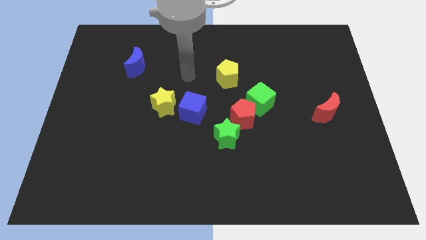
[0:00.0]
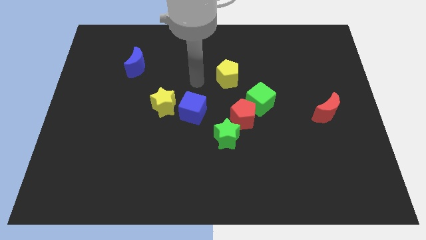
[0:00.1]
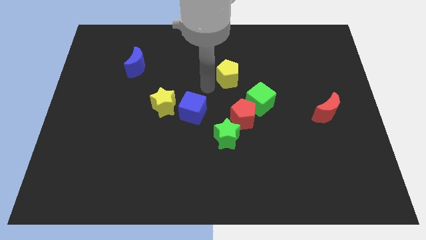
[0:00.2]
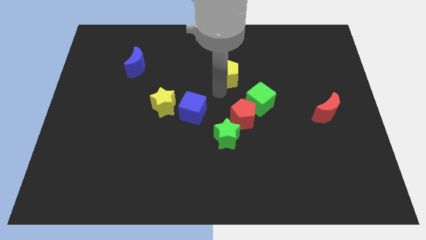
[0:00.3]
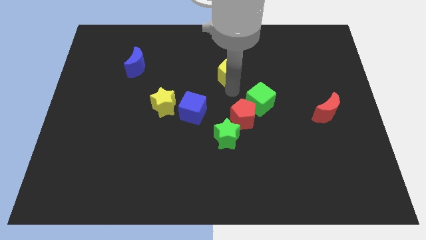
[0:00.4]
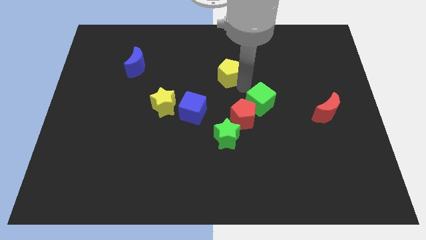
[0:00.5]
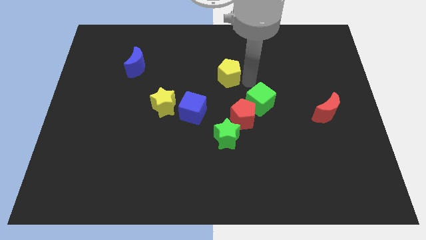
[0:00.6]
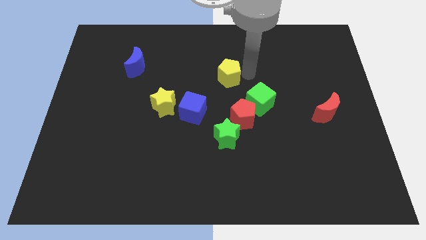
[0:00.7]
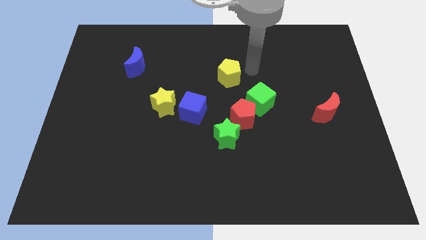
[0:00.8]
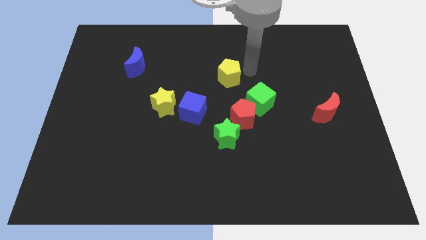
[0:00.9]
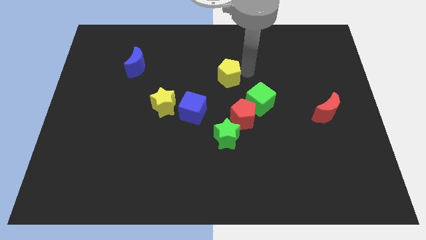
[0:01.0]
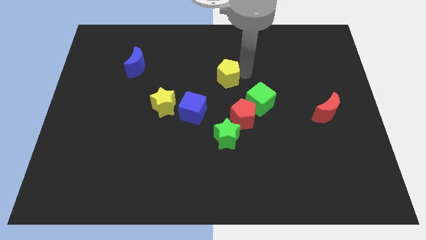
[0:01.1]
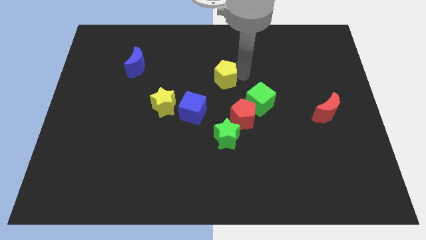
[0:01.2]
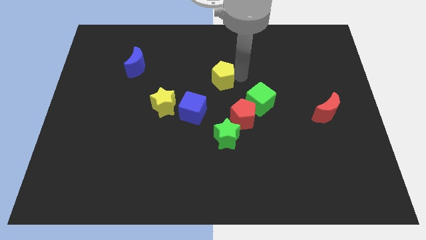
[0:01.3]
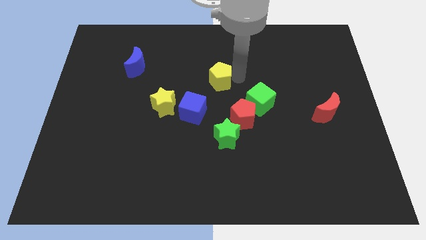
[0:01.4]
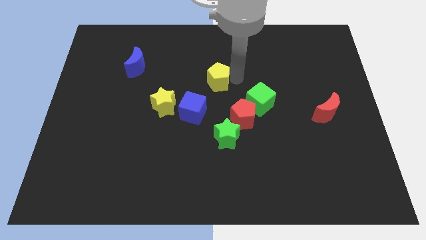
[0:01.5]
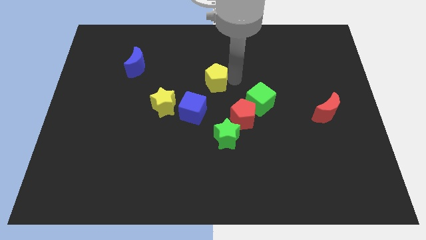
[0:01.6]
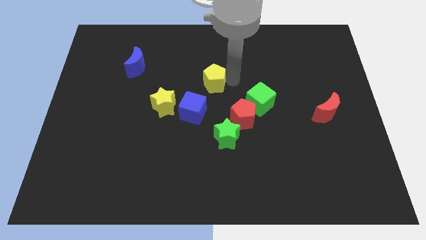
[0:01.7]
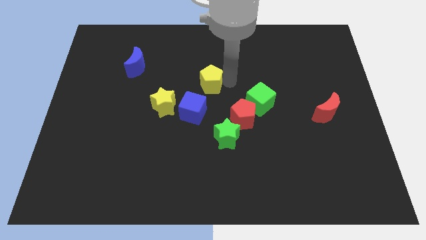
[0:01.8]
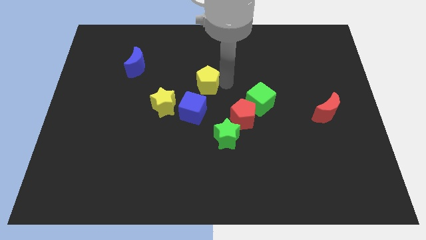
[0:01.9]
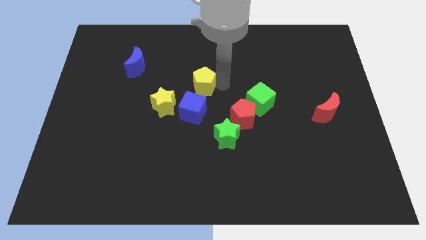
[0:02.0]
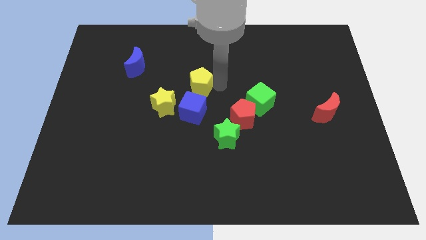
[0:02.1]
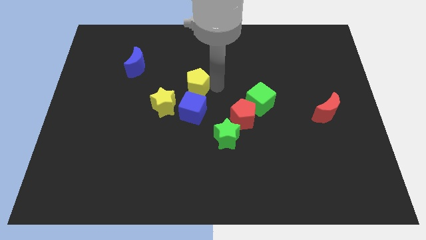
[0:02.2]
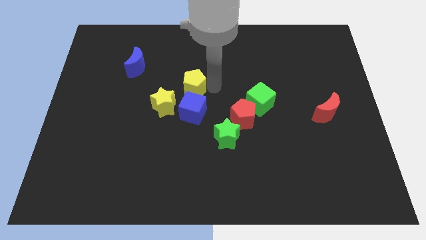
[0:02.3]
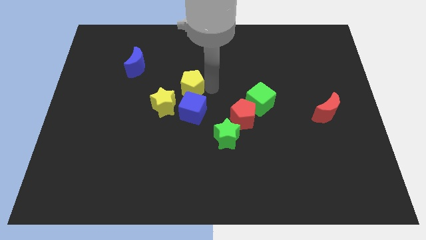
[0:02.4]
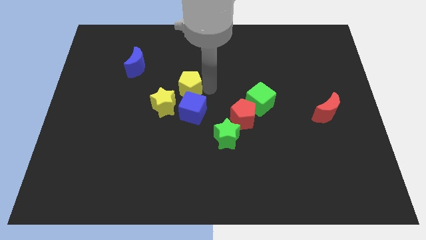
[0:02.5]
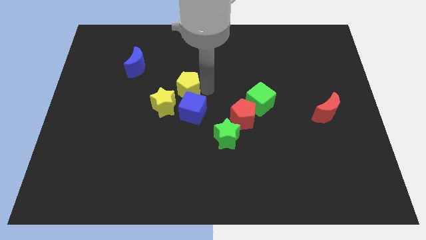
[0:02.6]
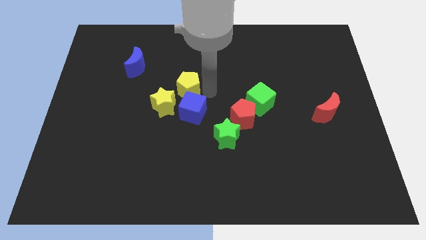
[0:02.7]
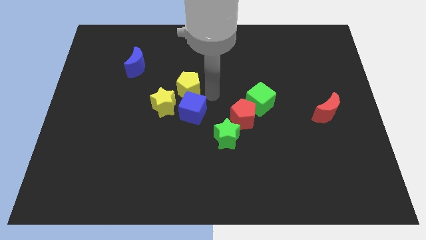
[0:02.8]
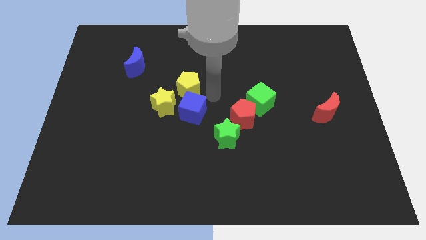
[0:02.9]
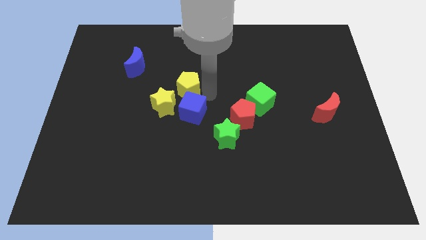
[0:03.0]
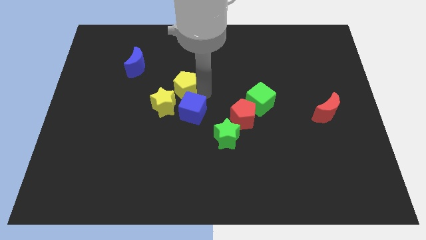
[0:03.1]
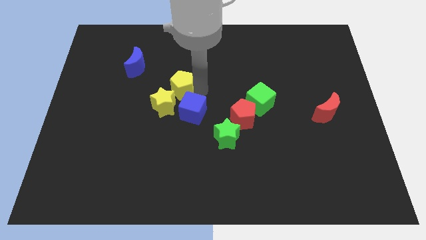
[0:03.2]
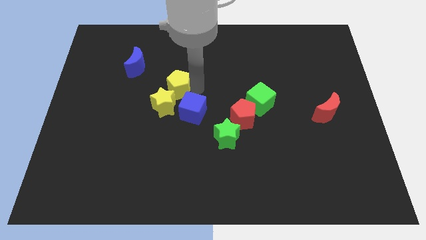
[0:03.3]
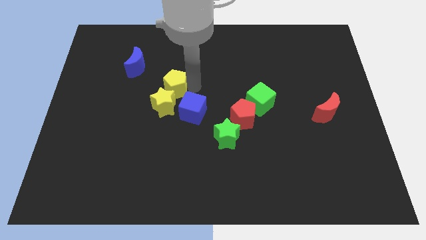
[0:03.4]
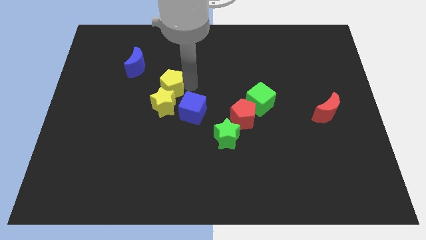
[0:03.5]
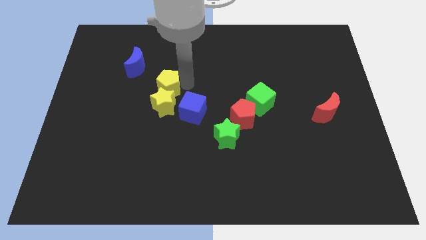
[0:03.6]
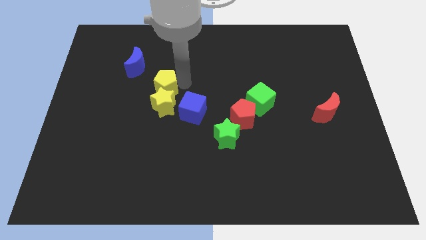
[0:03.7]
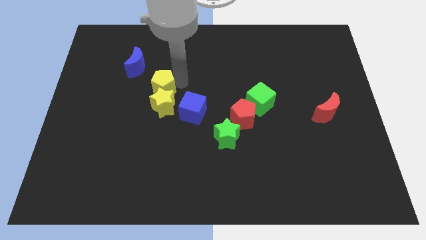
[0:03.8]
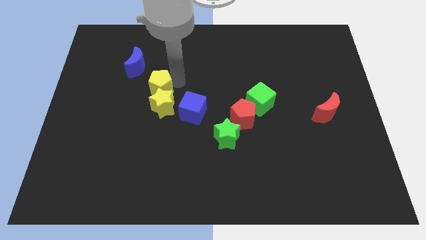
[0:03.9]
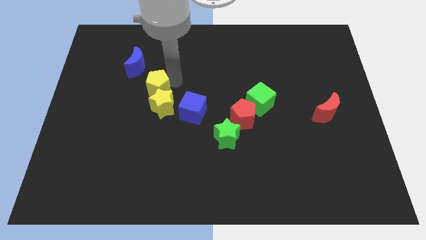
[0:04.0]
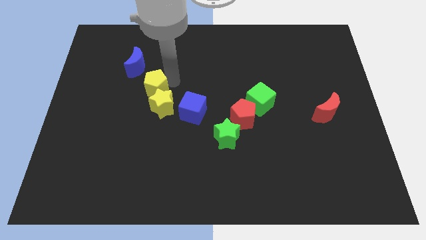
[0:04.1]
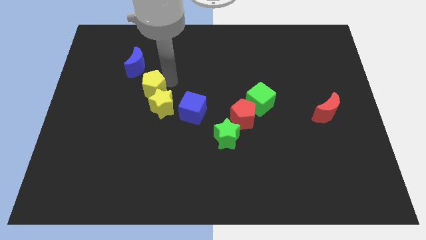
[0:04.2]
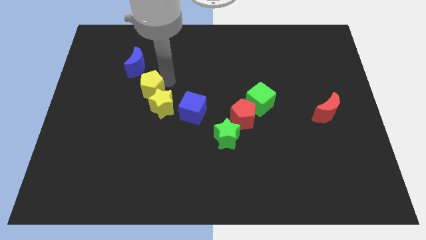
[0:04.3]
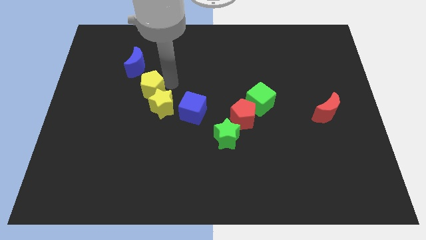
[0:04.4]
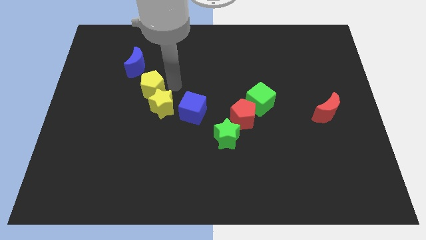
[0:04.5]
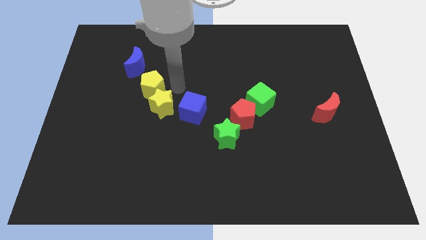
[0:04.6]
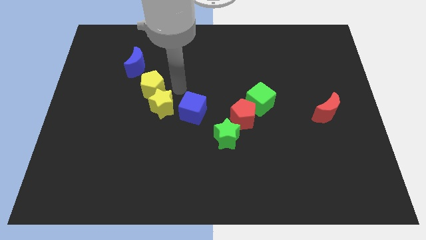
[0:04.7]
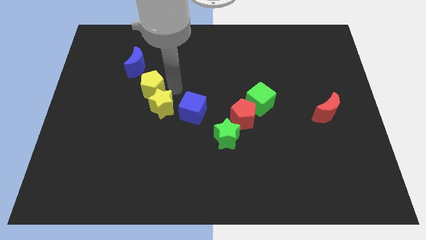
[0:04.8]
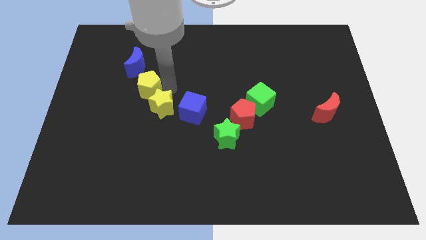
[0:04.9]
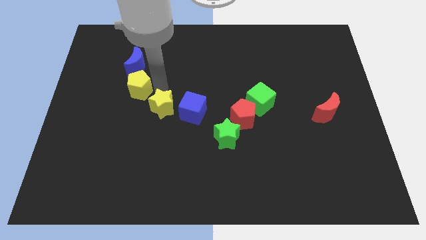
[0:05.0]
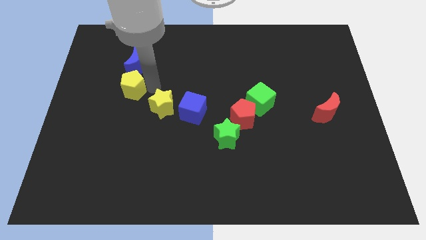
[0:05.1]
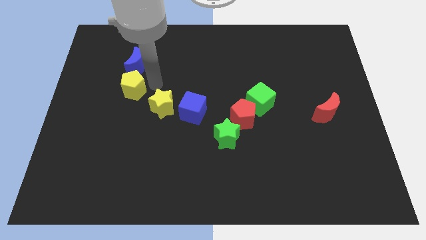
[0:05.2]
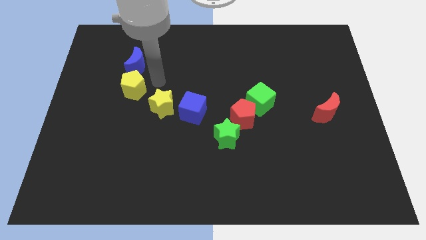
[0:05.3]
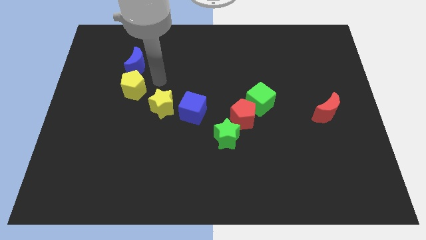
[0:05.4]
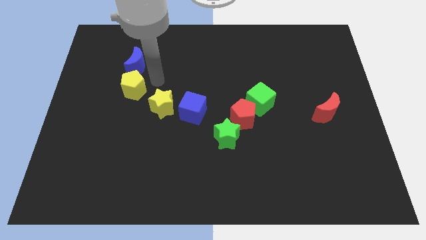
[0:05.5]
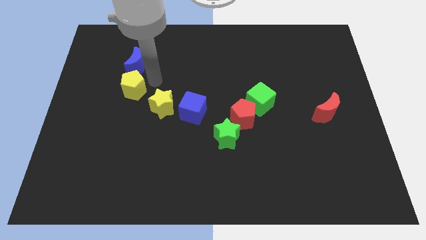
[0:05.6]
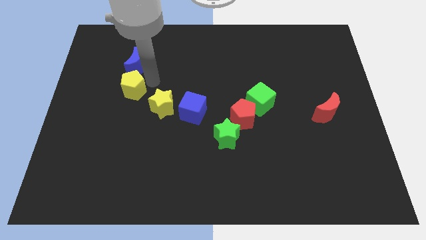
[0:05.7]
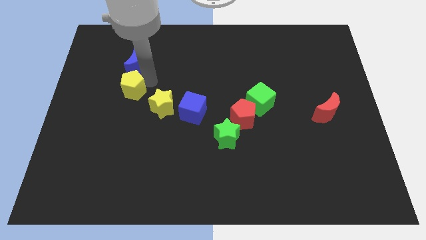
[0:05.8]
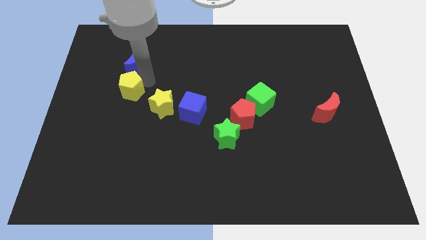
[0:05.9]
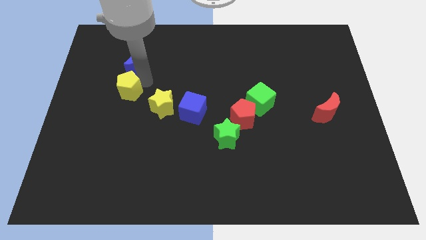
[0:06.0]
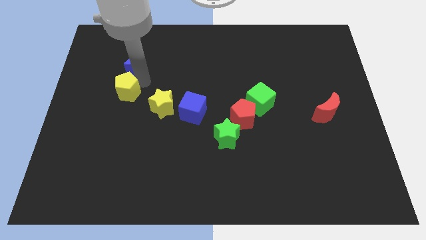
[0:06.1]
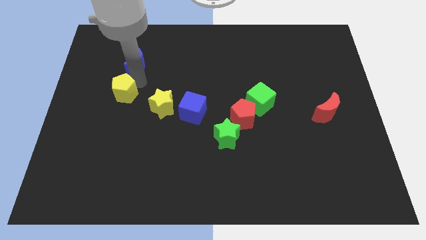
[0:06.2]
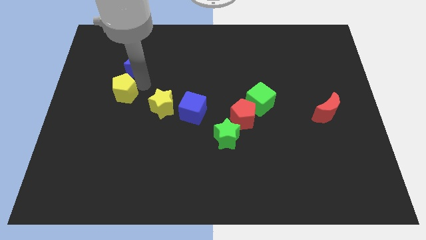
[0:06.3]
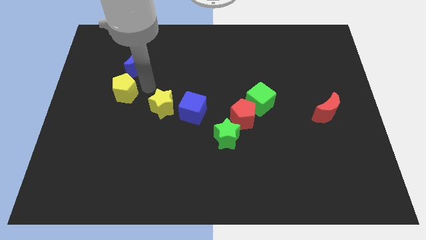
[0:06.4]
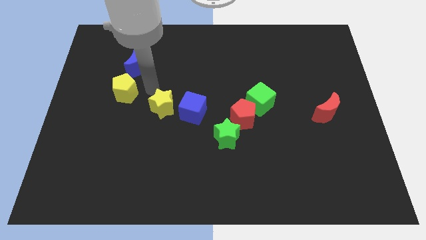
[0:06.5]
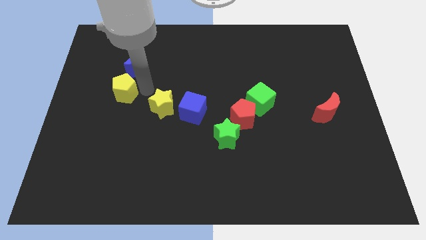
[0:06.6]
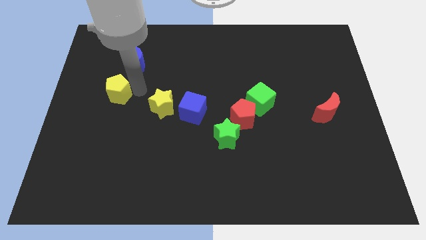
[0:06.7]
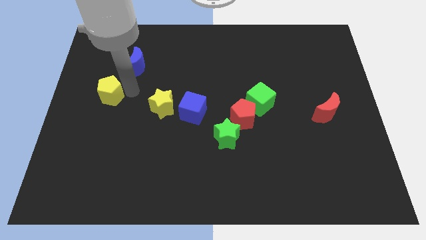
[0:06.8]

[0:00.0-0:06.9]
move the yellow pentagon to the left side of the board
